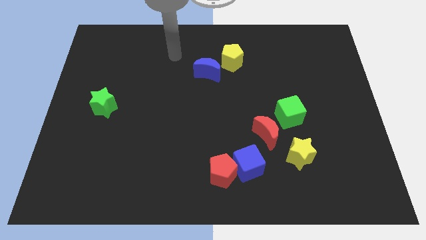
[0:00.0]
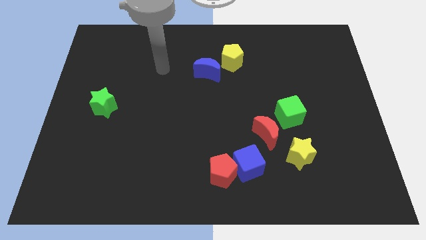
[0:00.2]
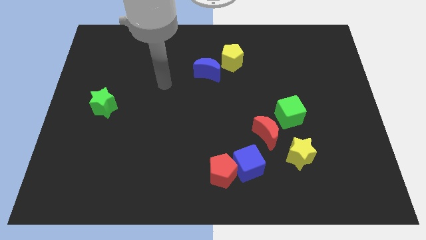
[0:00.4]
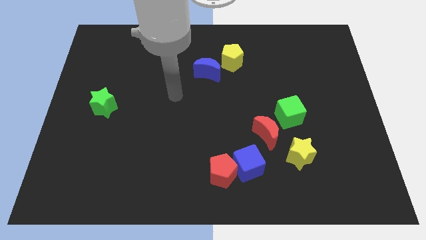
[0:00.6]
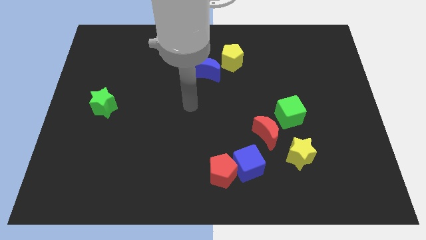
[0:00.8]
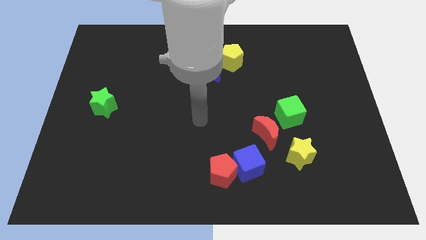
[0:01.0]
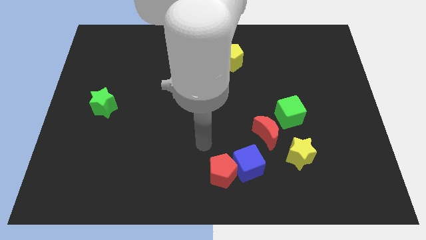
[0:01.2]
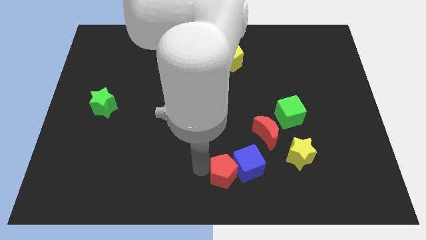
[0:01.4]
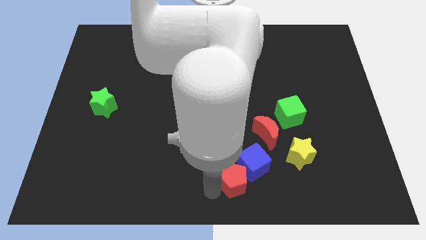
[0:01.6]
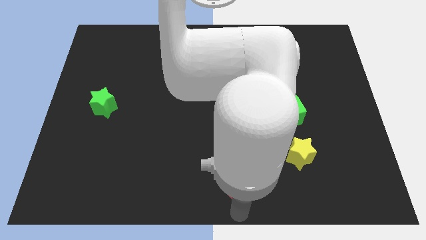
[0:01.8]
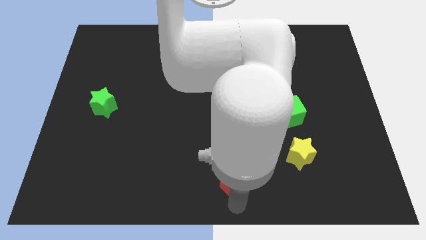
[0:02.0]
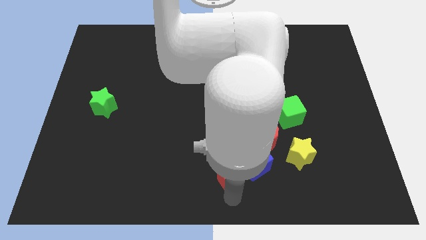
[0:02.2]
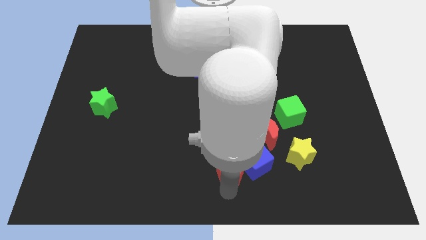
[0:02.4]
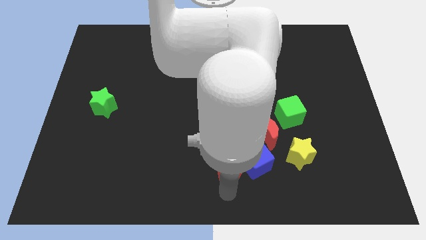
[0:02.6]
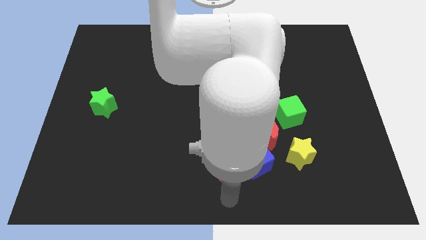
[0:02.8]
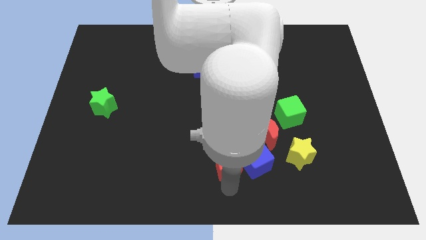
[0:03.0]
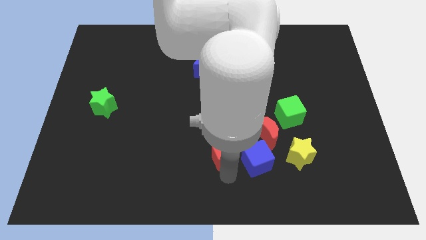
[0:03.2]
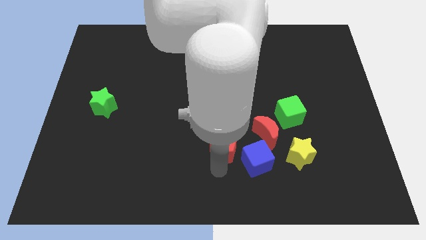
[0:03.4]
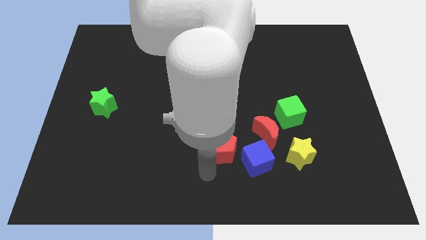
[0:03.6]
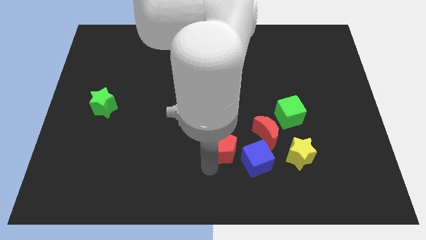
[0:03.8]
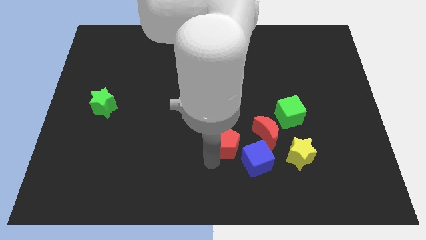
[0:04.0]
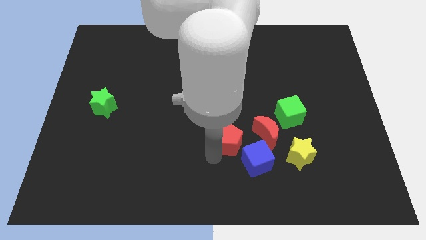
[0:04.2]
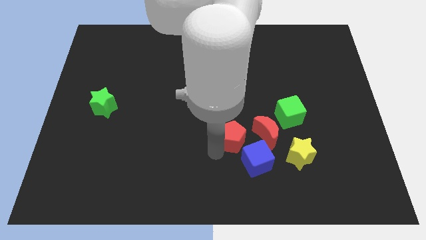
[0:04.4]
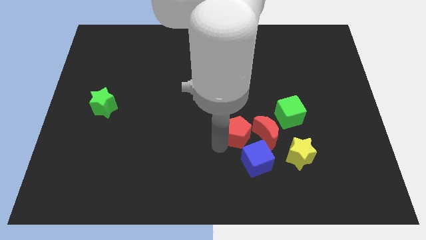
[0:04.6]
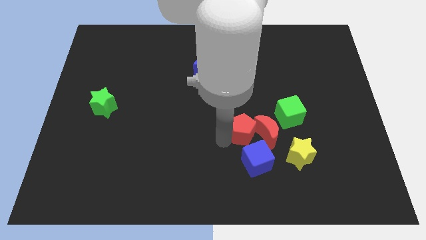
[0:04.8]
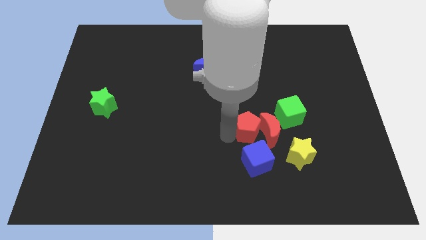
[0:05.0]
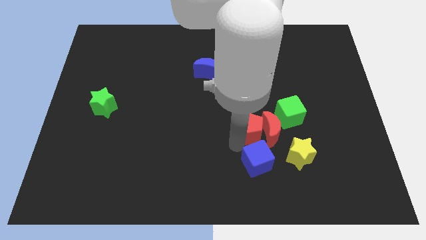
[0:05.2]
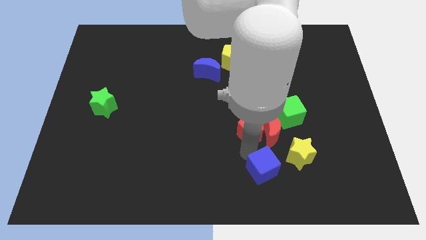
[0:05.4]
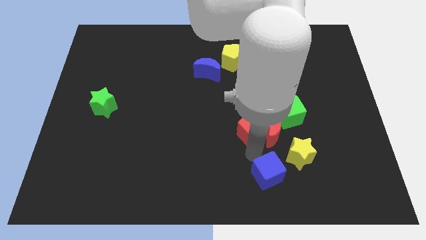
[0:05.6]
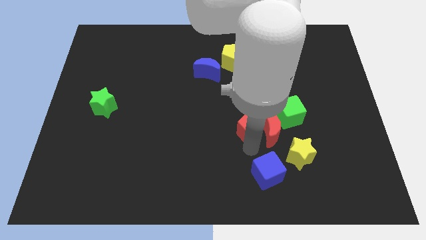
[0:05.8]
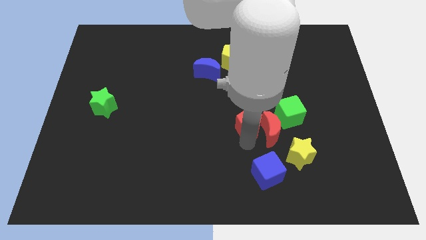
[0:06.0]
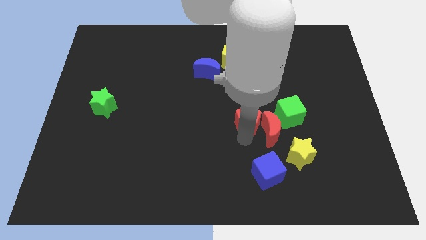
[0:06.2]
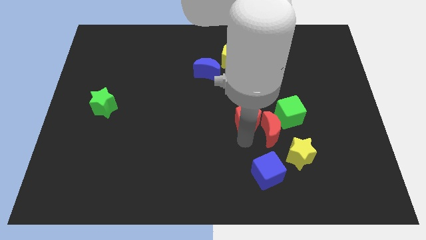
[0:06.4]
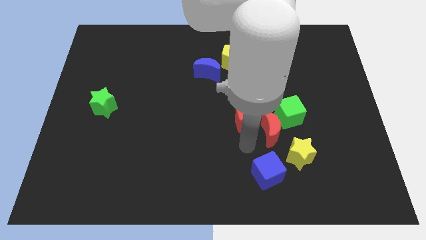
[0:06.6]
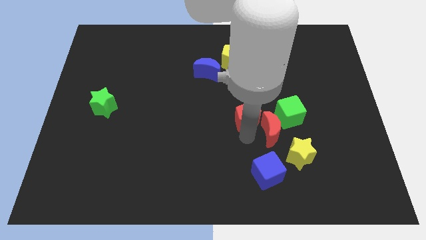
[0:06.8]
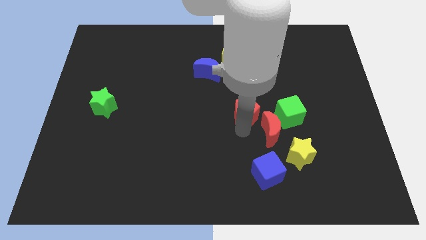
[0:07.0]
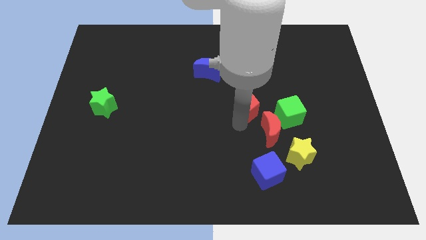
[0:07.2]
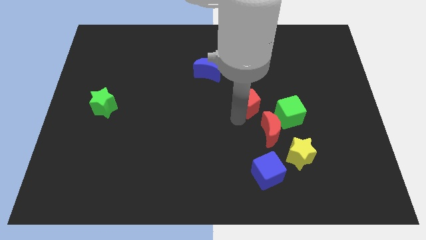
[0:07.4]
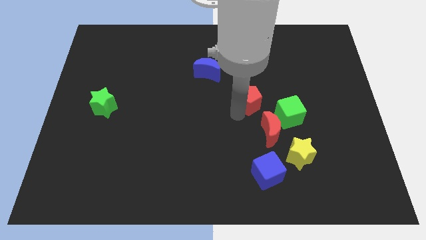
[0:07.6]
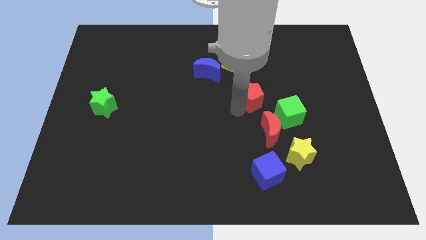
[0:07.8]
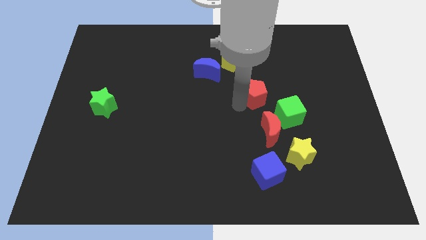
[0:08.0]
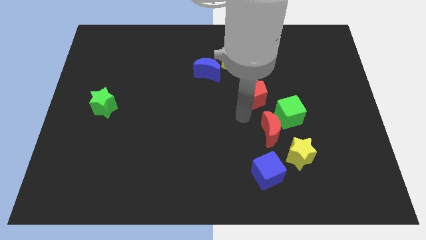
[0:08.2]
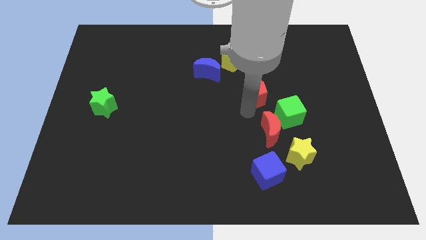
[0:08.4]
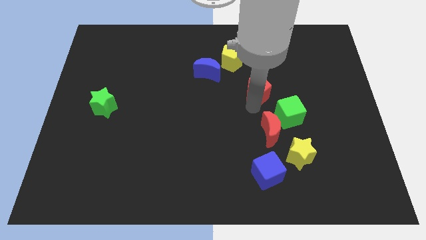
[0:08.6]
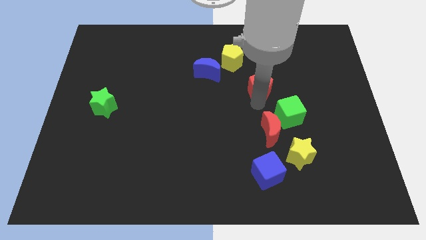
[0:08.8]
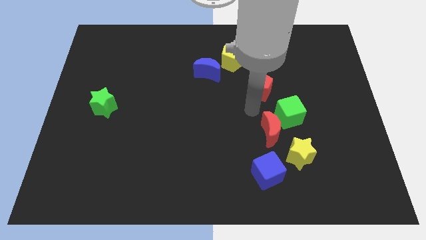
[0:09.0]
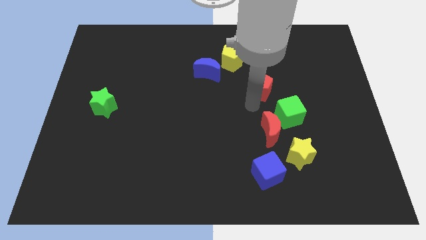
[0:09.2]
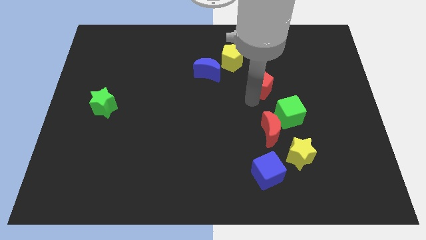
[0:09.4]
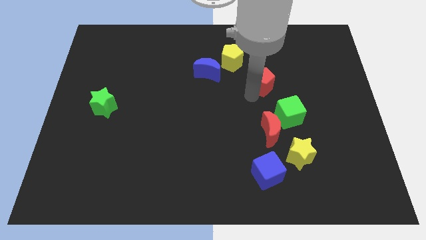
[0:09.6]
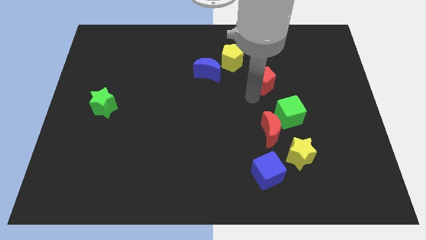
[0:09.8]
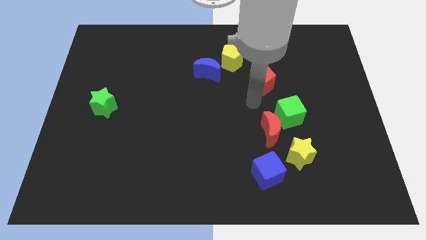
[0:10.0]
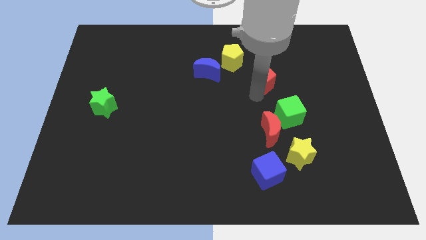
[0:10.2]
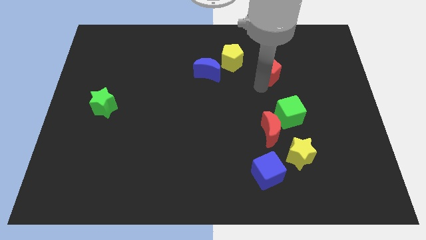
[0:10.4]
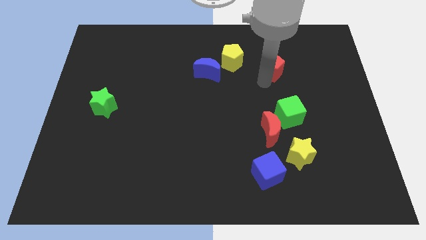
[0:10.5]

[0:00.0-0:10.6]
move the red pentagon just right of the yellow pentagon

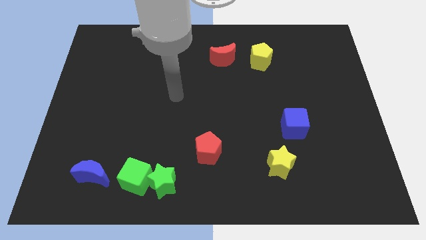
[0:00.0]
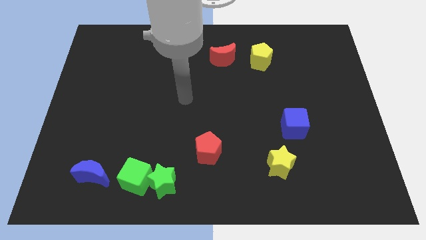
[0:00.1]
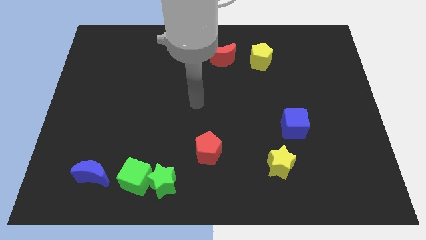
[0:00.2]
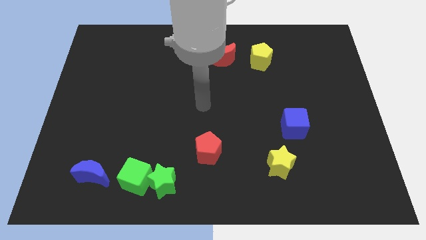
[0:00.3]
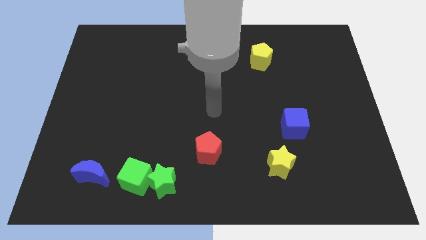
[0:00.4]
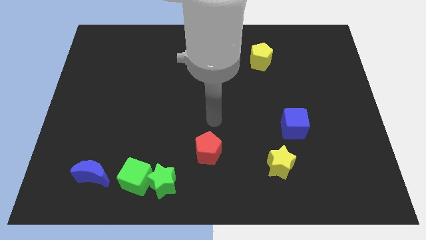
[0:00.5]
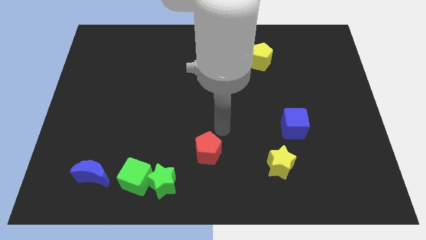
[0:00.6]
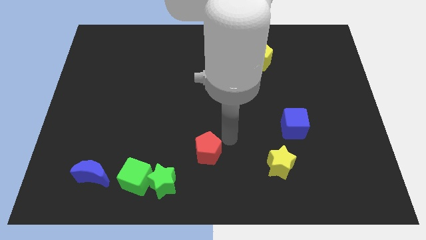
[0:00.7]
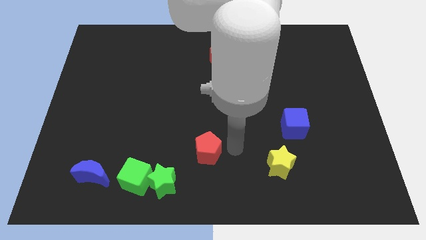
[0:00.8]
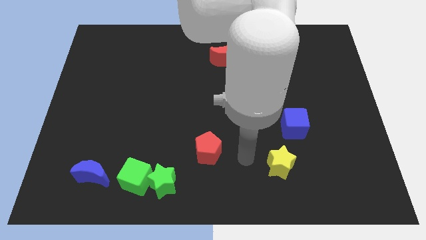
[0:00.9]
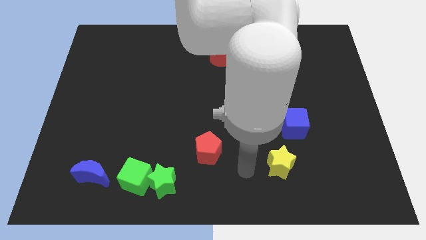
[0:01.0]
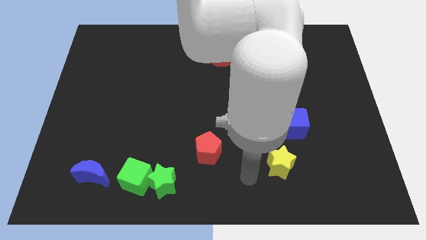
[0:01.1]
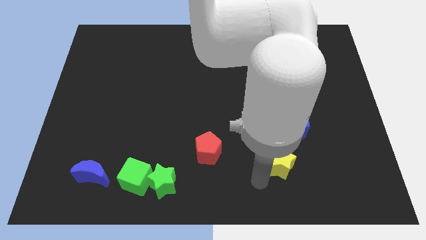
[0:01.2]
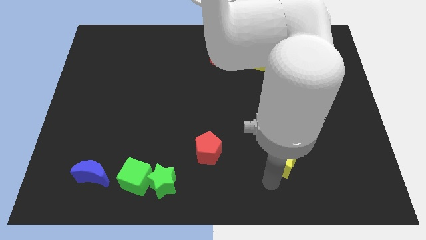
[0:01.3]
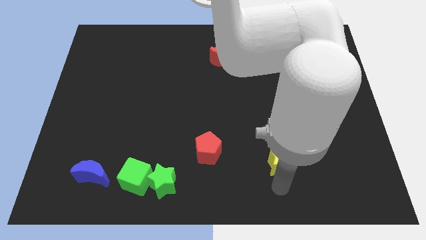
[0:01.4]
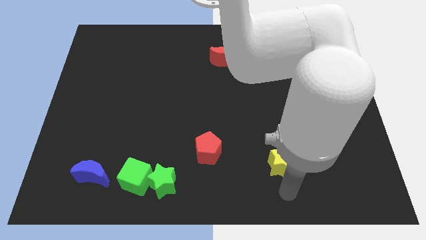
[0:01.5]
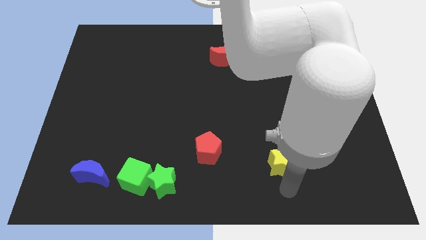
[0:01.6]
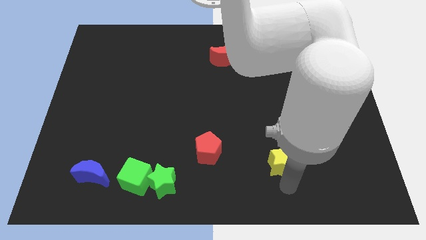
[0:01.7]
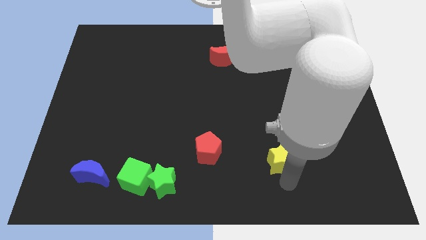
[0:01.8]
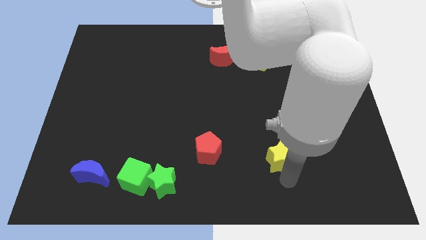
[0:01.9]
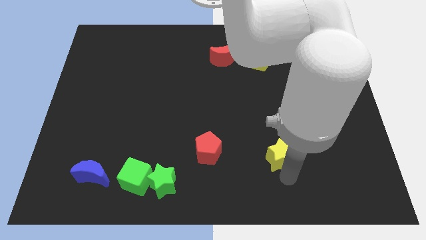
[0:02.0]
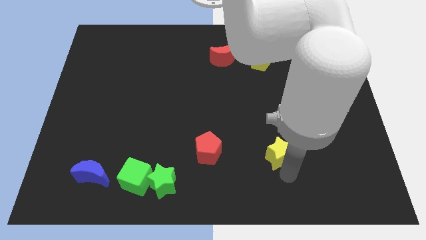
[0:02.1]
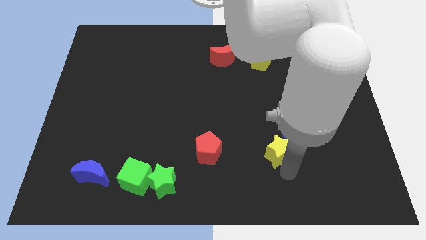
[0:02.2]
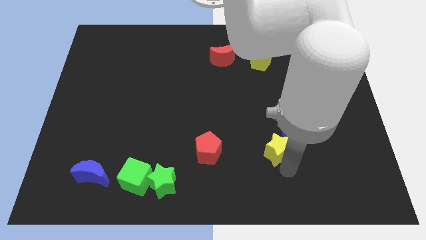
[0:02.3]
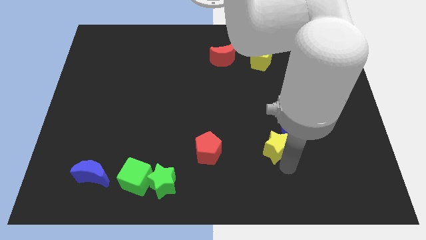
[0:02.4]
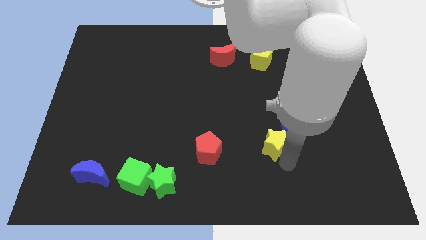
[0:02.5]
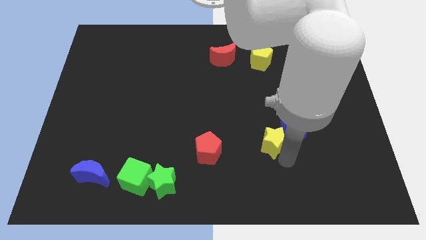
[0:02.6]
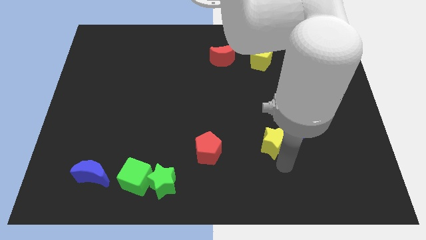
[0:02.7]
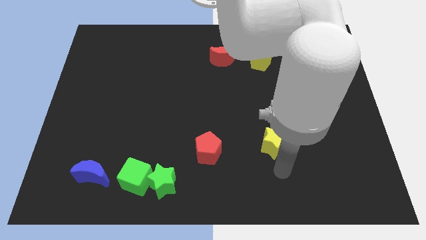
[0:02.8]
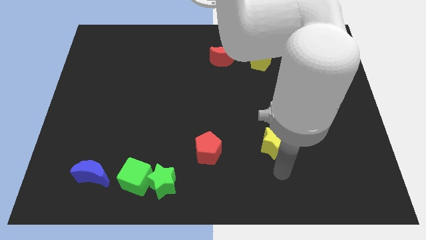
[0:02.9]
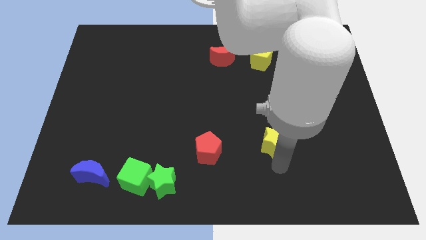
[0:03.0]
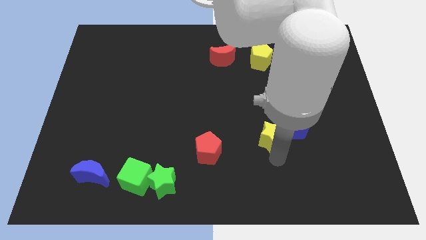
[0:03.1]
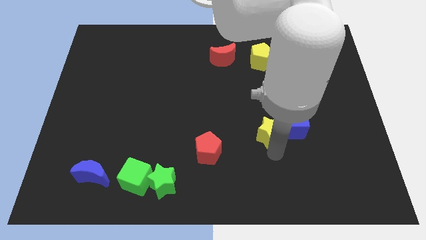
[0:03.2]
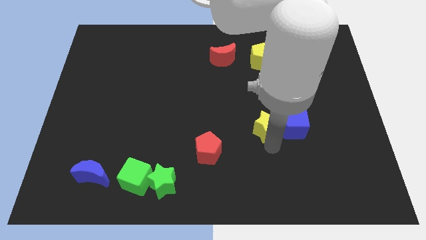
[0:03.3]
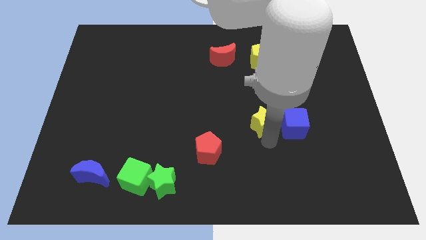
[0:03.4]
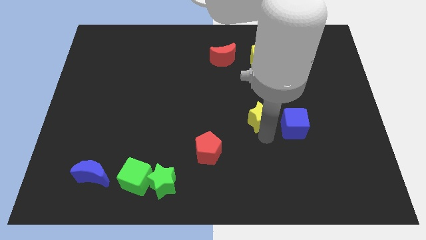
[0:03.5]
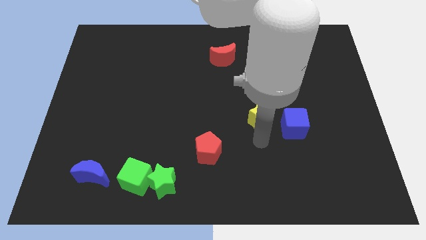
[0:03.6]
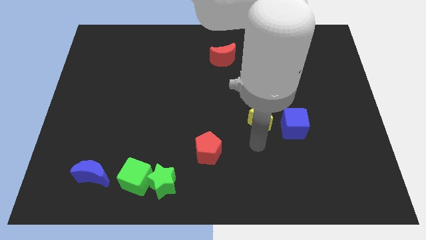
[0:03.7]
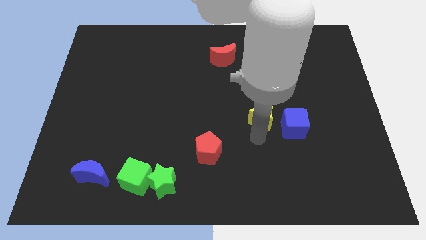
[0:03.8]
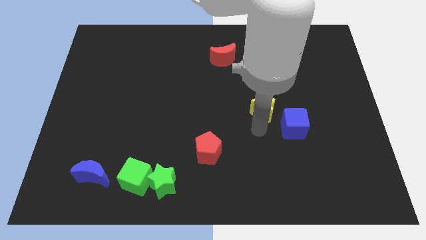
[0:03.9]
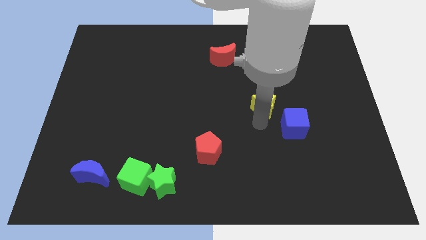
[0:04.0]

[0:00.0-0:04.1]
move the yellow star below the yellow pentagon
